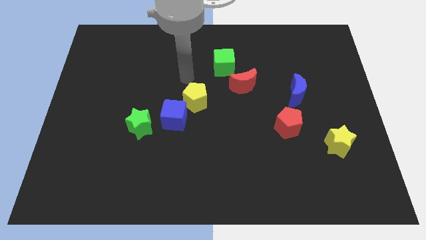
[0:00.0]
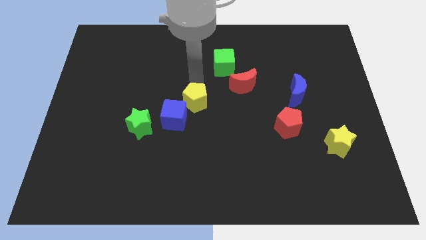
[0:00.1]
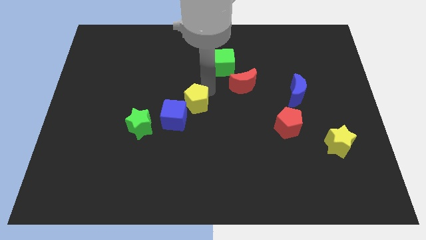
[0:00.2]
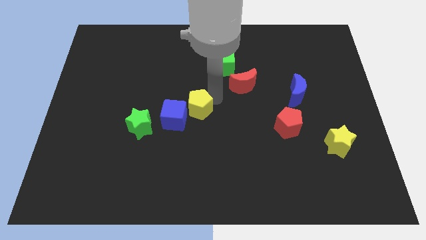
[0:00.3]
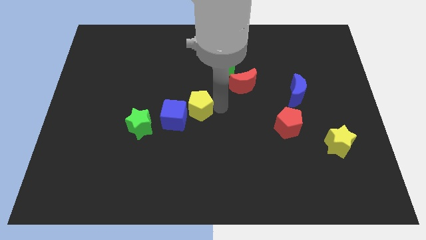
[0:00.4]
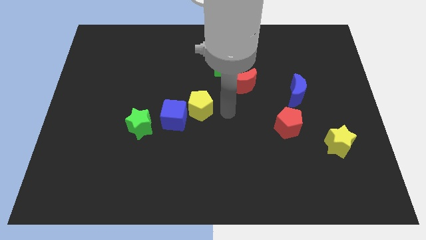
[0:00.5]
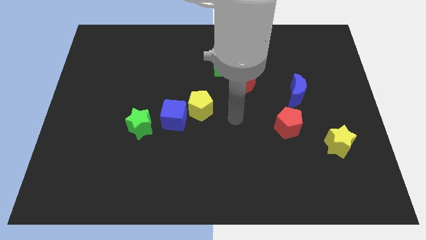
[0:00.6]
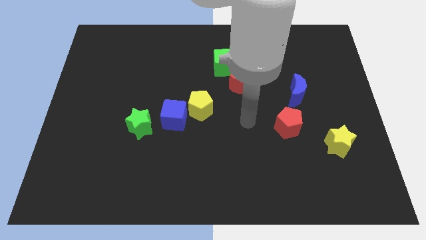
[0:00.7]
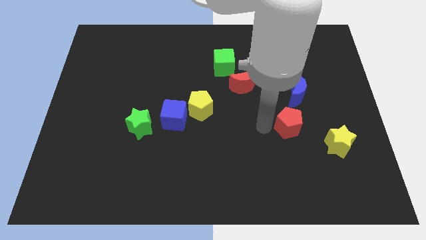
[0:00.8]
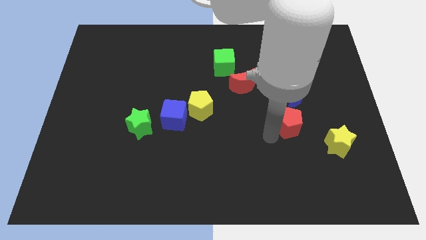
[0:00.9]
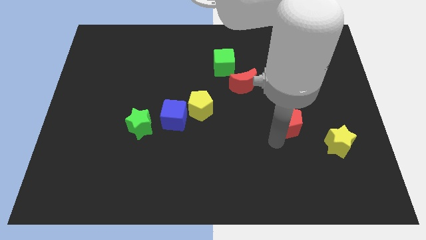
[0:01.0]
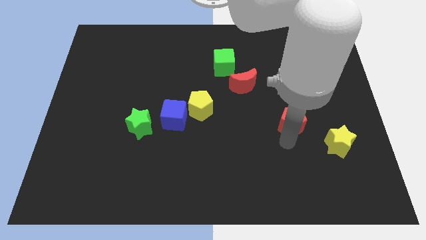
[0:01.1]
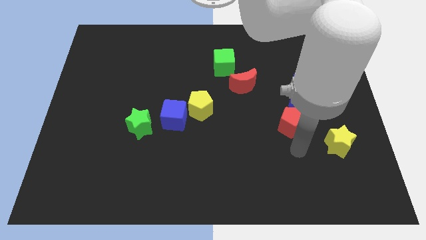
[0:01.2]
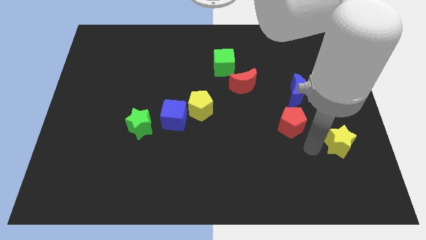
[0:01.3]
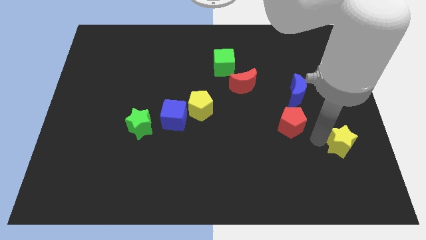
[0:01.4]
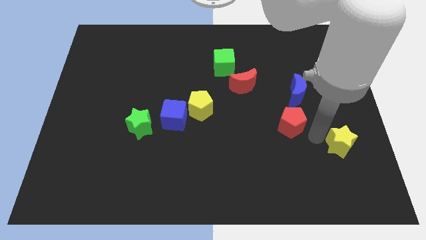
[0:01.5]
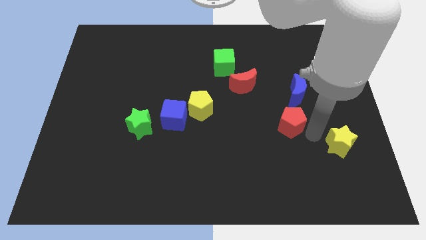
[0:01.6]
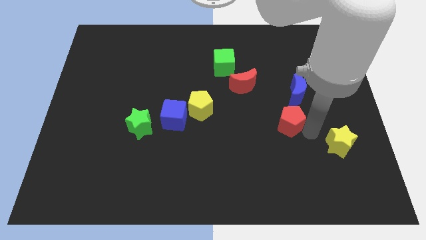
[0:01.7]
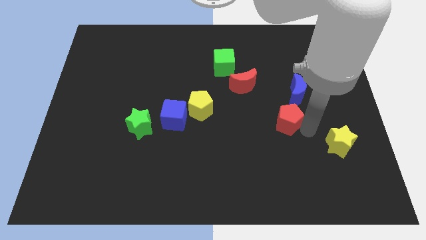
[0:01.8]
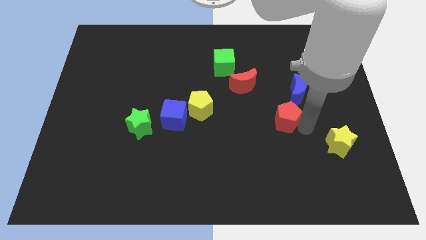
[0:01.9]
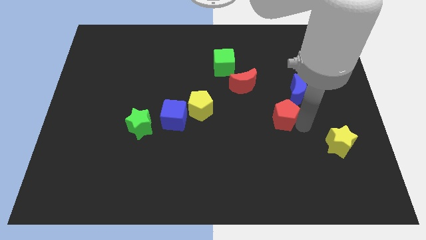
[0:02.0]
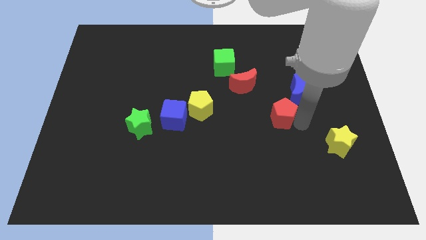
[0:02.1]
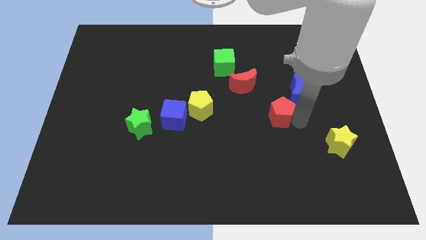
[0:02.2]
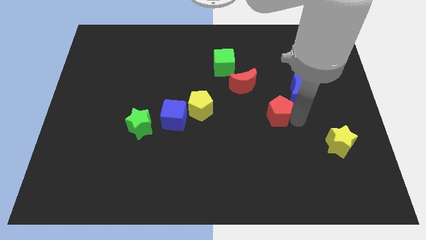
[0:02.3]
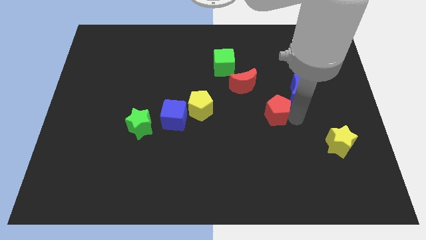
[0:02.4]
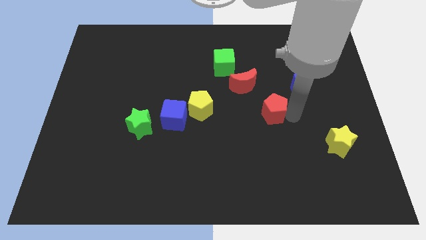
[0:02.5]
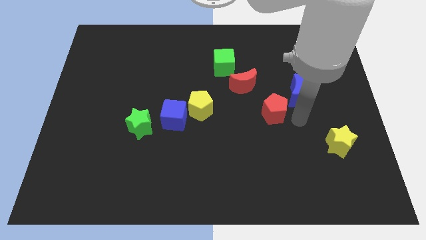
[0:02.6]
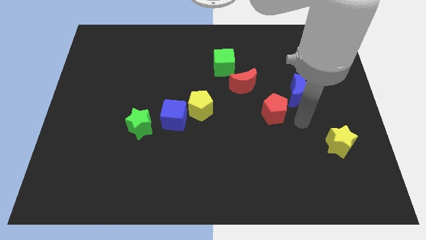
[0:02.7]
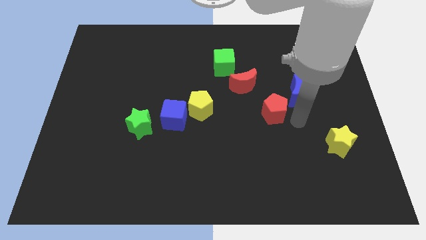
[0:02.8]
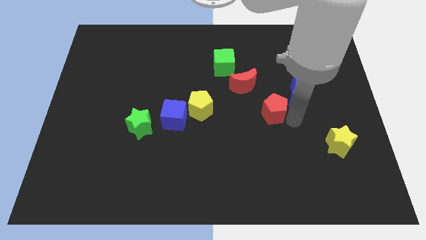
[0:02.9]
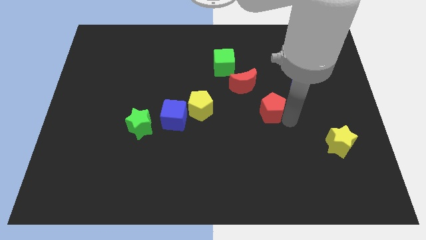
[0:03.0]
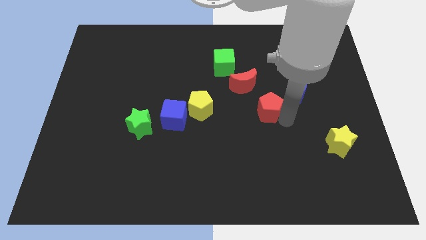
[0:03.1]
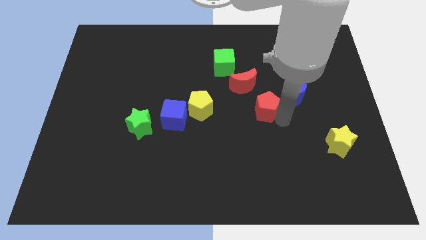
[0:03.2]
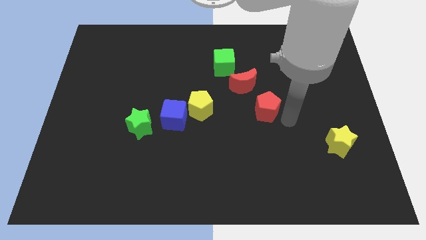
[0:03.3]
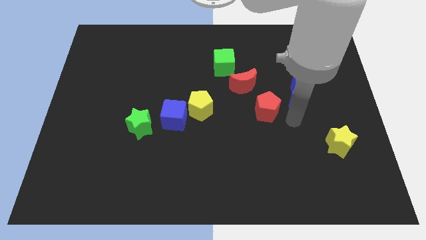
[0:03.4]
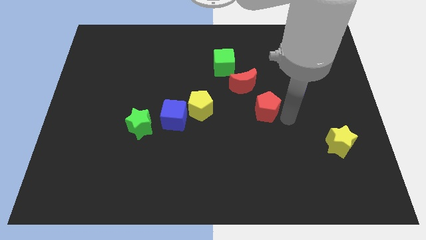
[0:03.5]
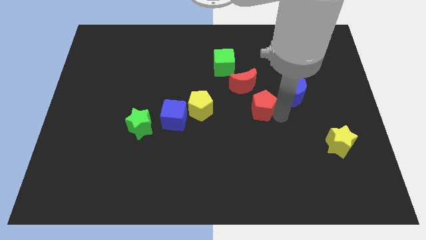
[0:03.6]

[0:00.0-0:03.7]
push the red pentagon diagonally up and to the left somewhat

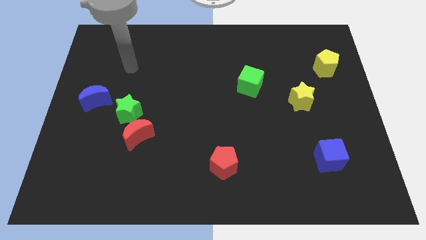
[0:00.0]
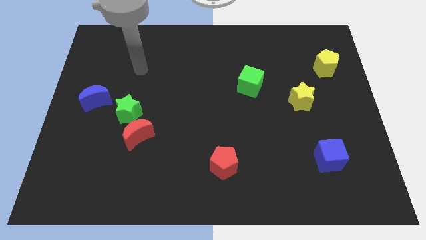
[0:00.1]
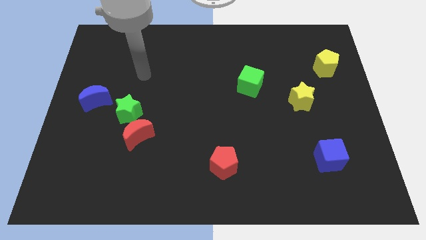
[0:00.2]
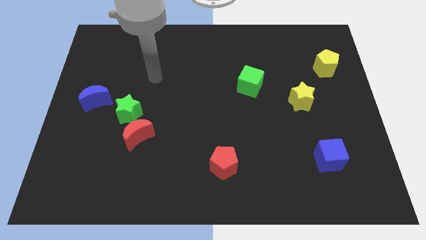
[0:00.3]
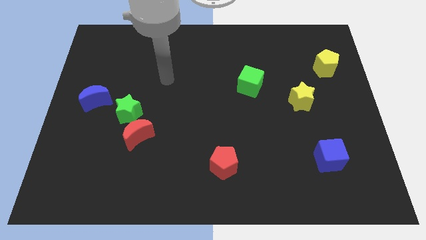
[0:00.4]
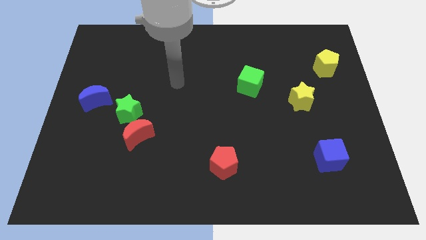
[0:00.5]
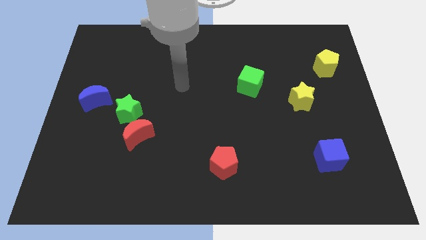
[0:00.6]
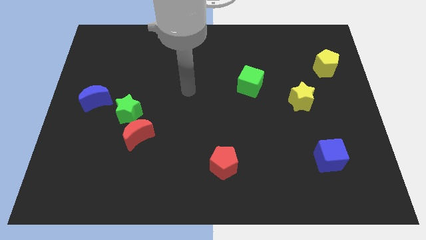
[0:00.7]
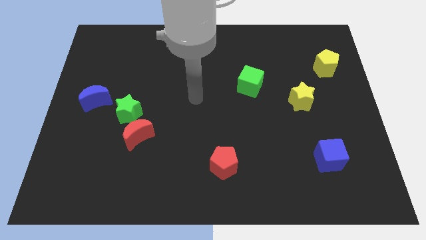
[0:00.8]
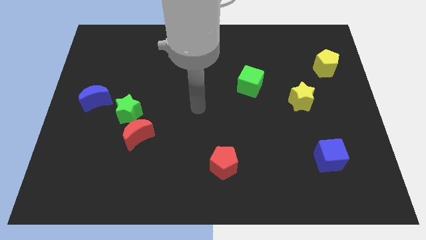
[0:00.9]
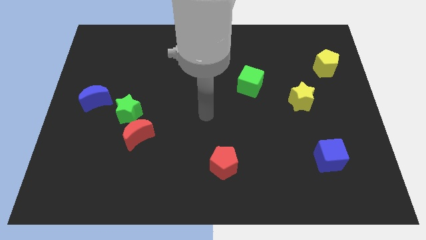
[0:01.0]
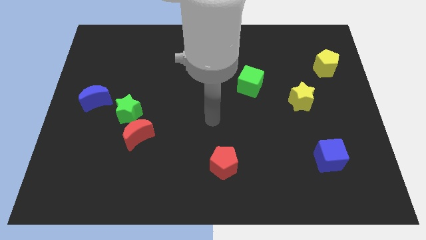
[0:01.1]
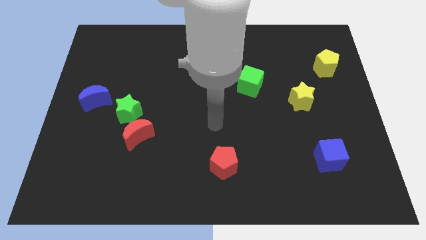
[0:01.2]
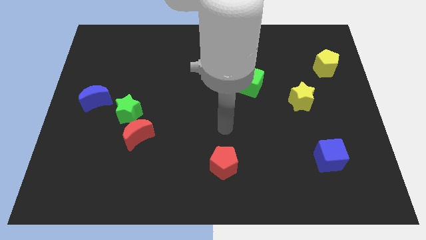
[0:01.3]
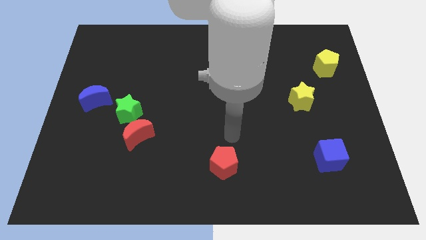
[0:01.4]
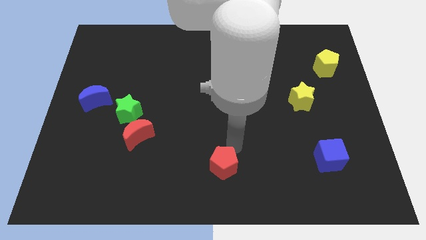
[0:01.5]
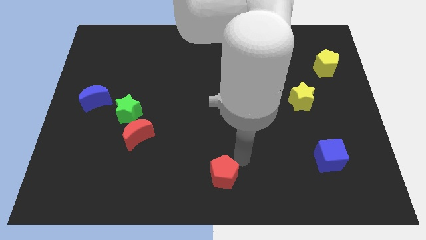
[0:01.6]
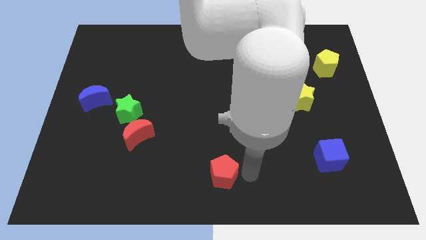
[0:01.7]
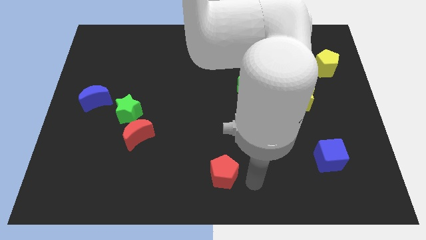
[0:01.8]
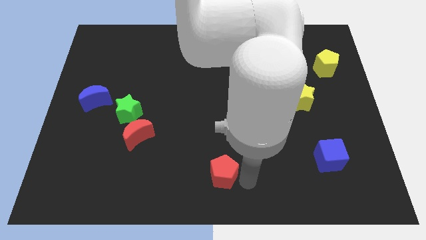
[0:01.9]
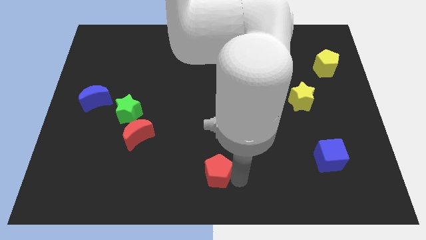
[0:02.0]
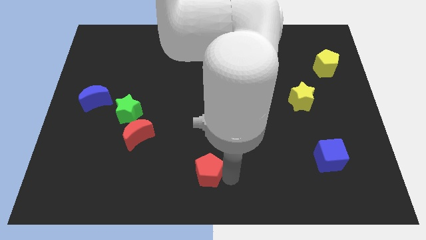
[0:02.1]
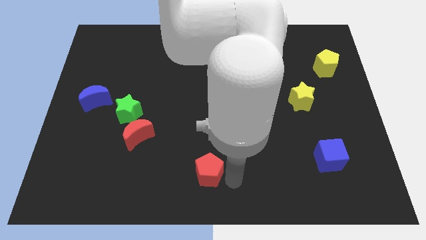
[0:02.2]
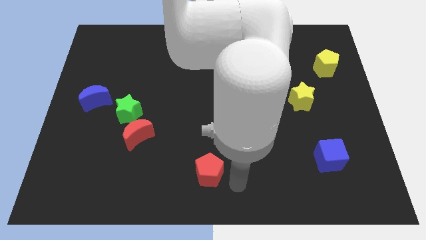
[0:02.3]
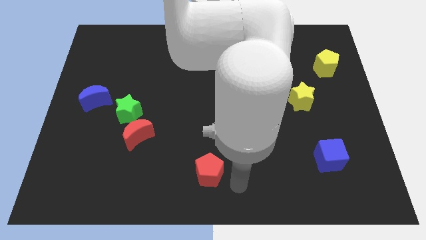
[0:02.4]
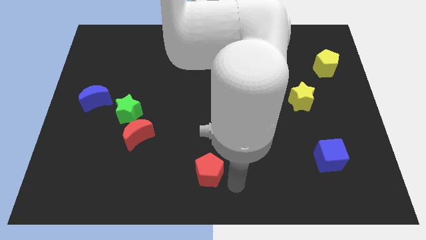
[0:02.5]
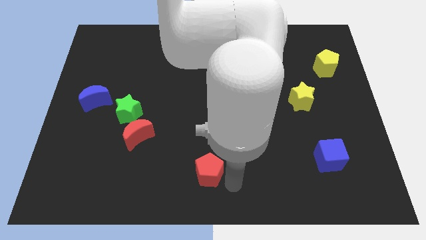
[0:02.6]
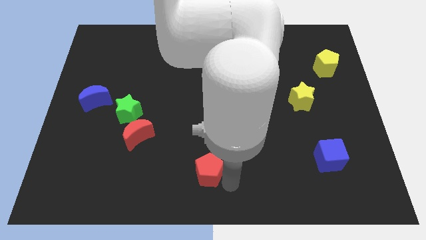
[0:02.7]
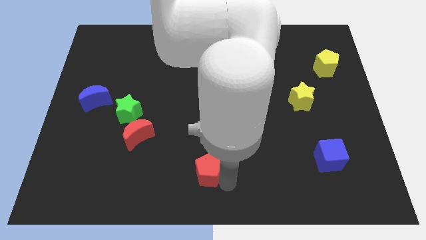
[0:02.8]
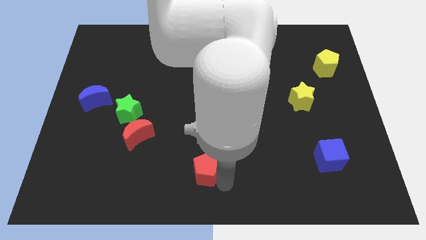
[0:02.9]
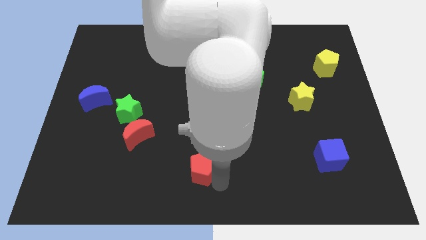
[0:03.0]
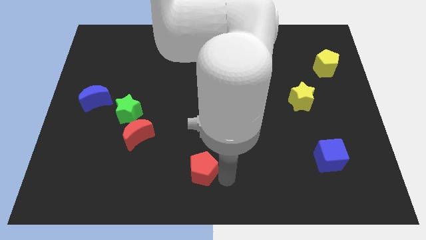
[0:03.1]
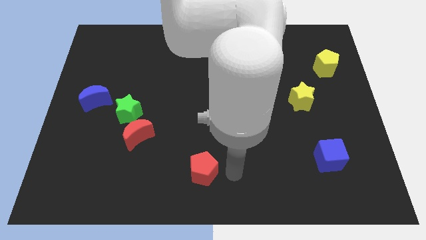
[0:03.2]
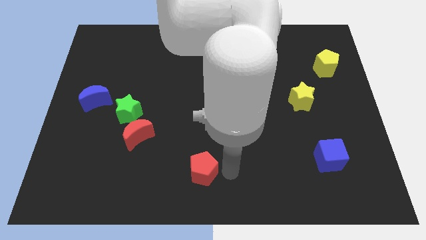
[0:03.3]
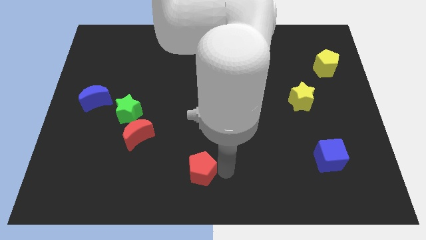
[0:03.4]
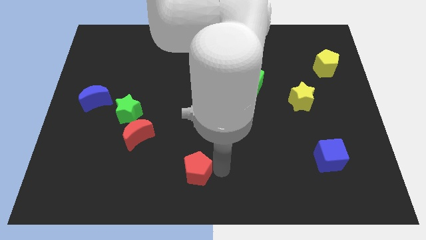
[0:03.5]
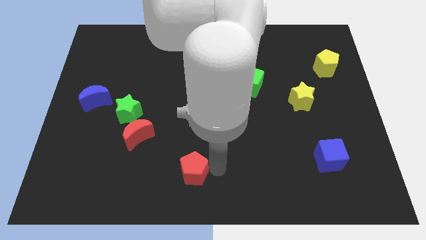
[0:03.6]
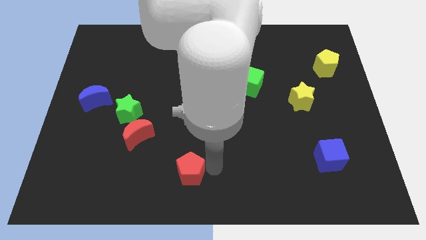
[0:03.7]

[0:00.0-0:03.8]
slide the red pentagon left a bit

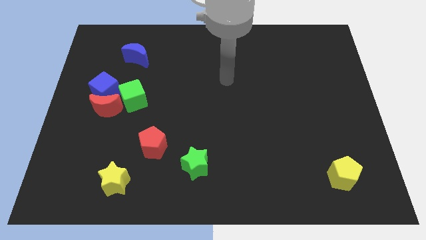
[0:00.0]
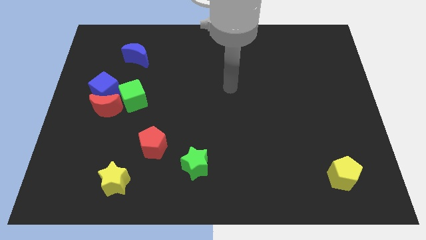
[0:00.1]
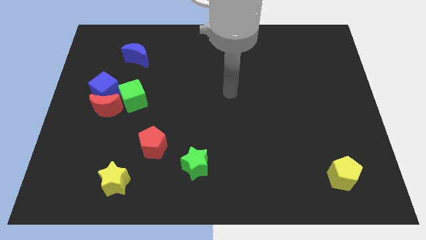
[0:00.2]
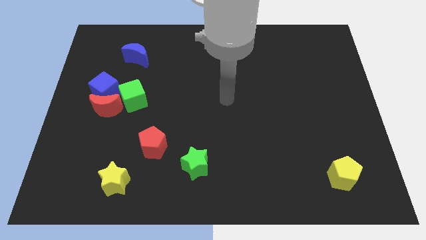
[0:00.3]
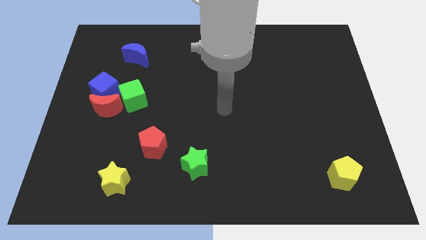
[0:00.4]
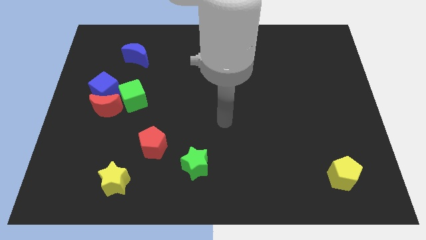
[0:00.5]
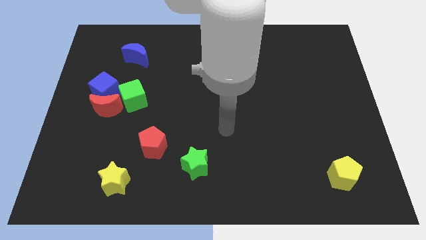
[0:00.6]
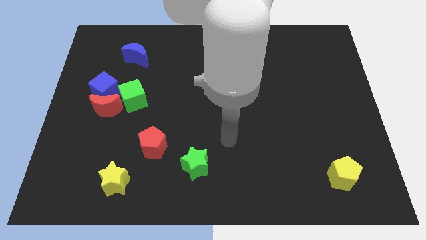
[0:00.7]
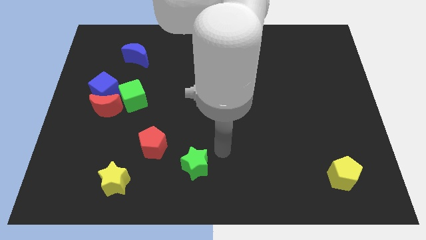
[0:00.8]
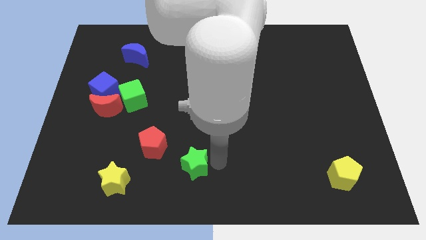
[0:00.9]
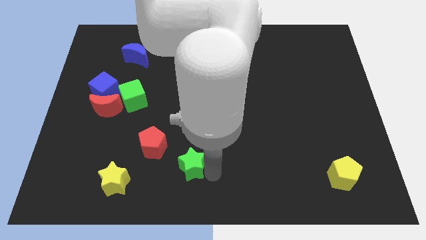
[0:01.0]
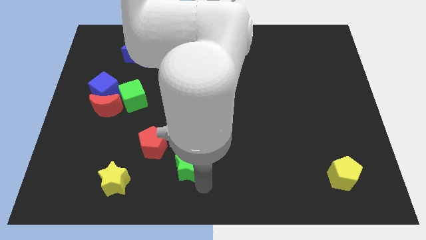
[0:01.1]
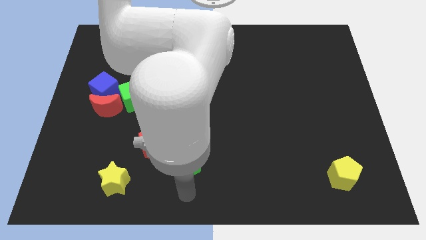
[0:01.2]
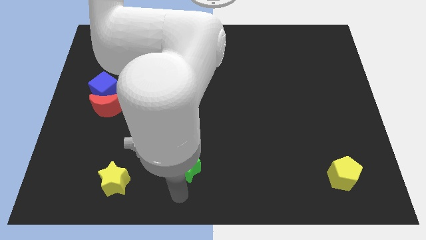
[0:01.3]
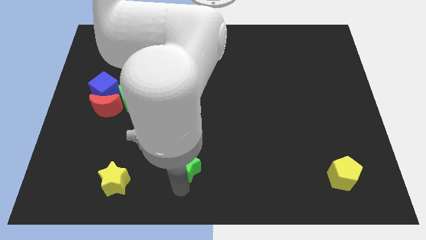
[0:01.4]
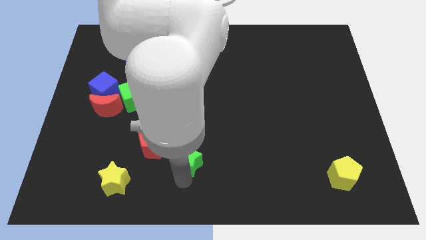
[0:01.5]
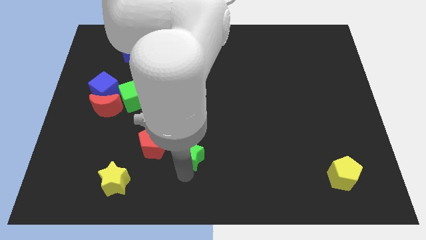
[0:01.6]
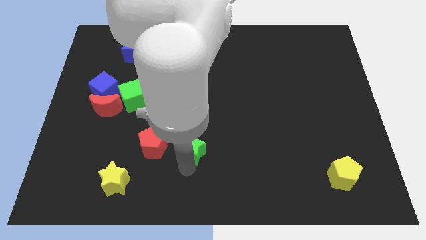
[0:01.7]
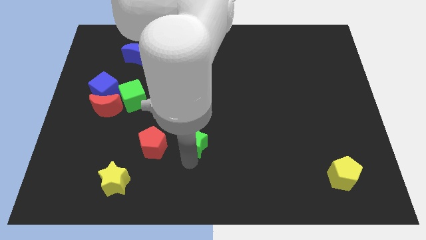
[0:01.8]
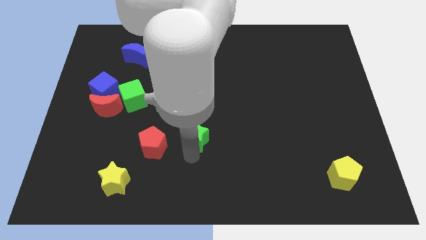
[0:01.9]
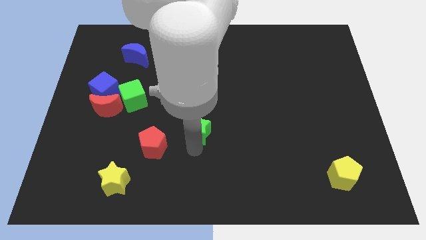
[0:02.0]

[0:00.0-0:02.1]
slide the green star upwards a bit
